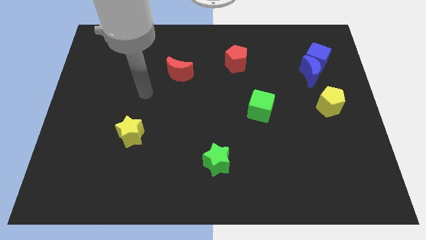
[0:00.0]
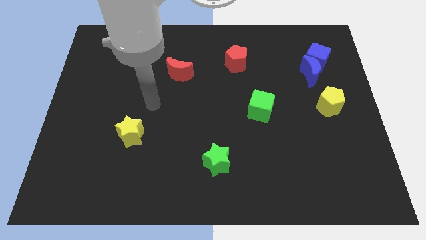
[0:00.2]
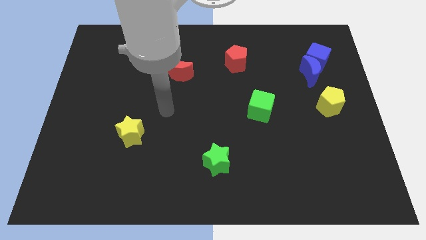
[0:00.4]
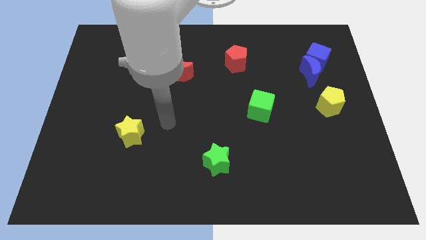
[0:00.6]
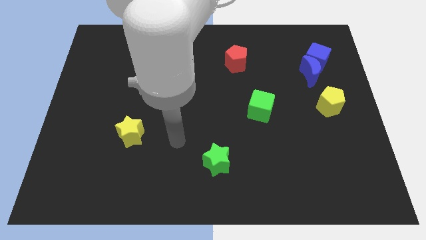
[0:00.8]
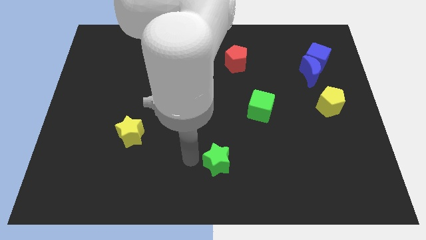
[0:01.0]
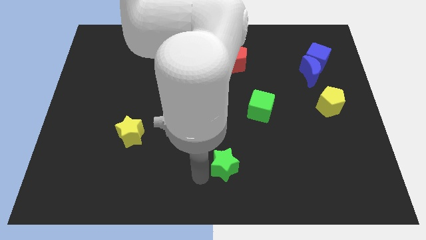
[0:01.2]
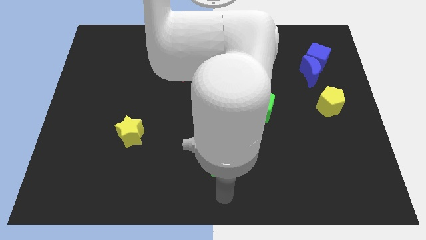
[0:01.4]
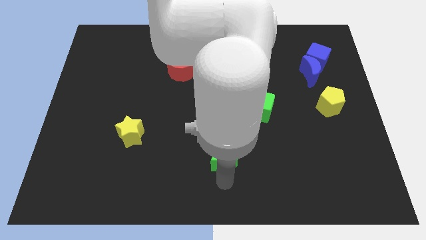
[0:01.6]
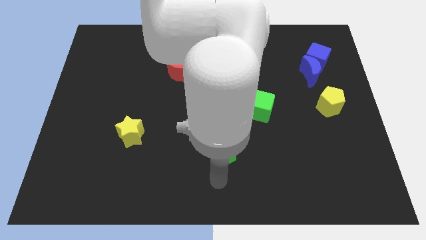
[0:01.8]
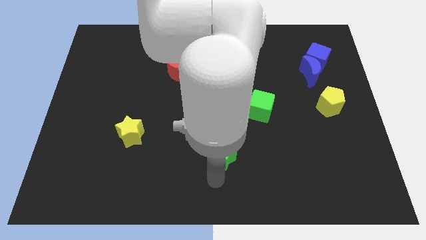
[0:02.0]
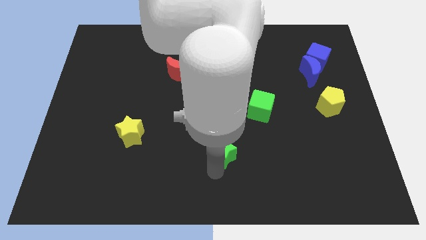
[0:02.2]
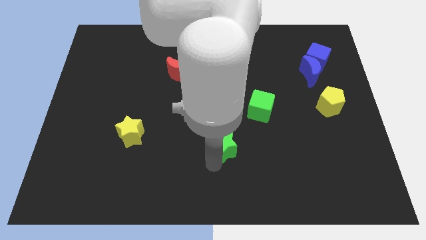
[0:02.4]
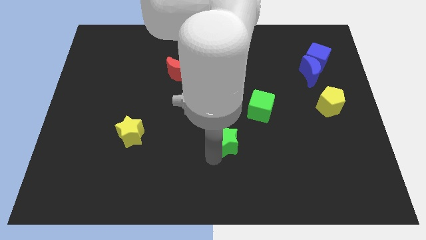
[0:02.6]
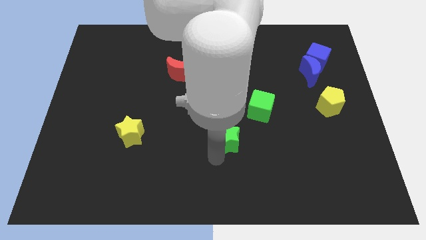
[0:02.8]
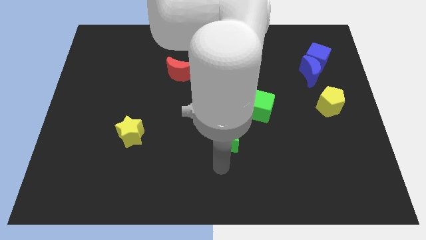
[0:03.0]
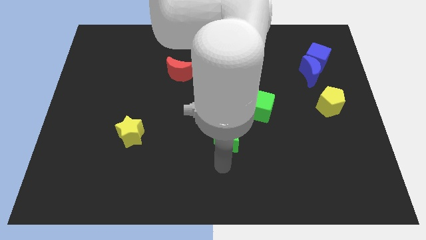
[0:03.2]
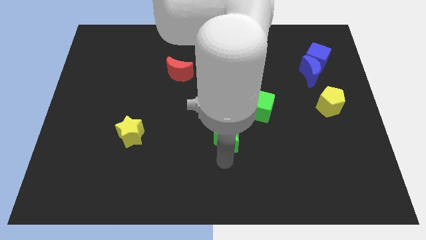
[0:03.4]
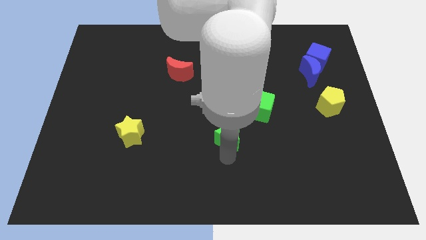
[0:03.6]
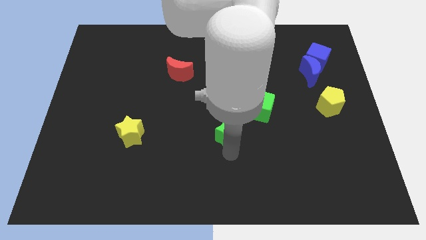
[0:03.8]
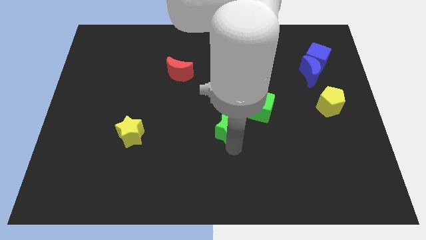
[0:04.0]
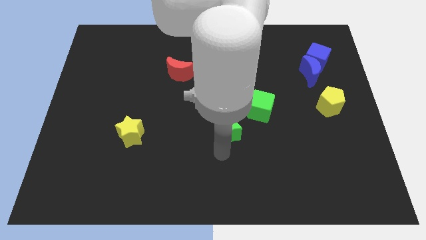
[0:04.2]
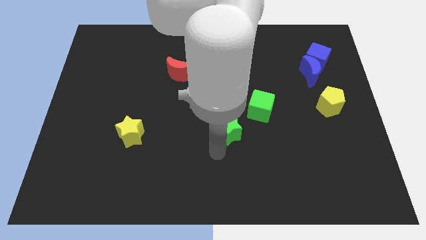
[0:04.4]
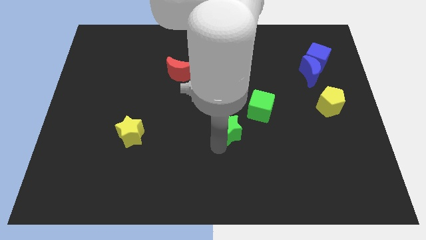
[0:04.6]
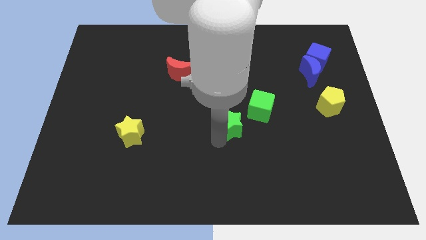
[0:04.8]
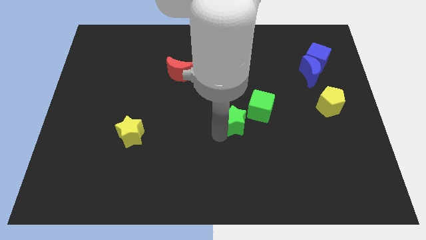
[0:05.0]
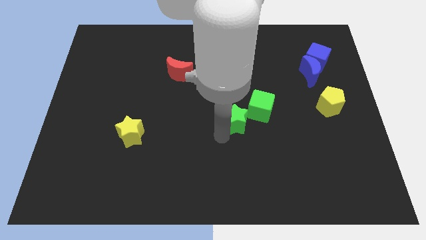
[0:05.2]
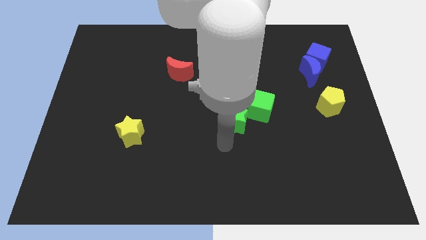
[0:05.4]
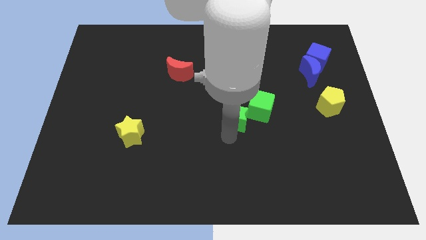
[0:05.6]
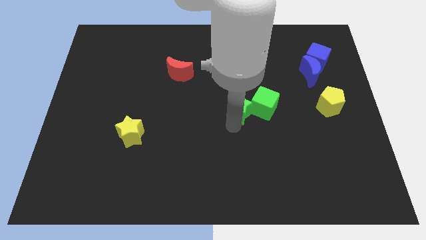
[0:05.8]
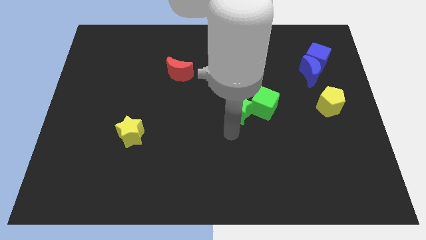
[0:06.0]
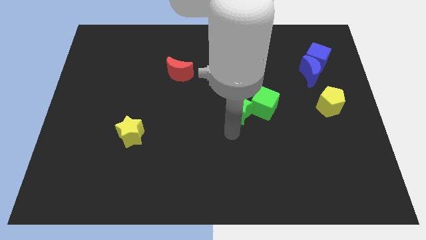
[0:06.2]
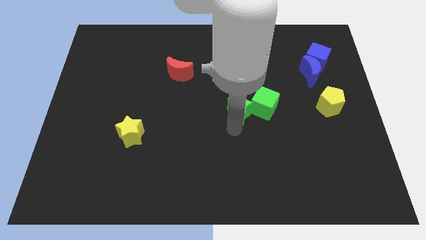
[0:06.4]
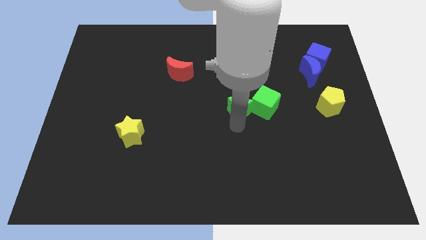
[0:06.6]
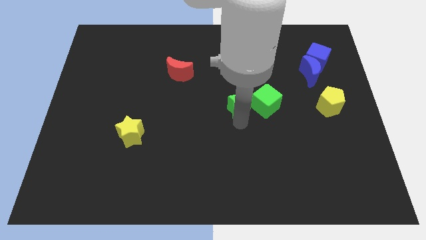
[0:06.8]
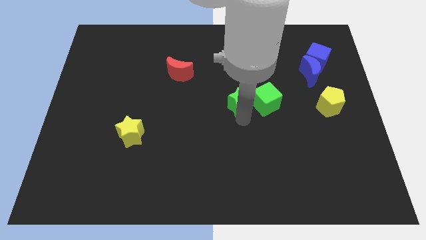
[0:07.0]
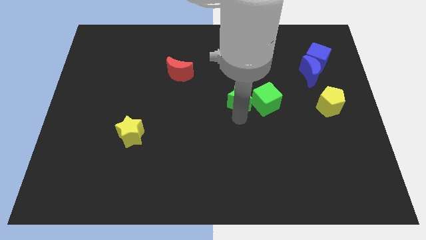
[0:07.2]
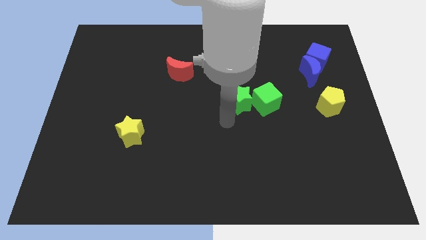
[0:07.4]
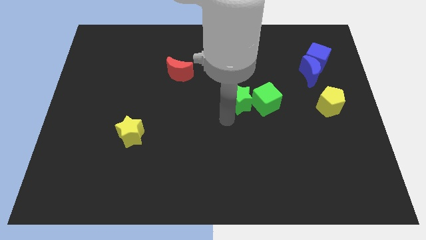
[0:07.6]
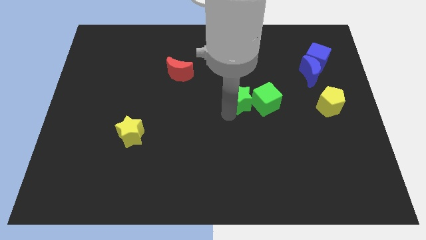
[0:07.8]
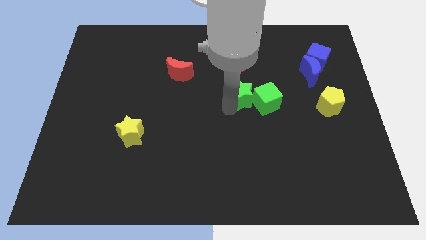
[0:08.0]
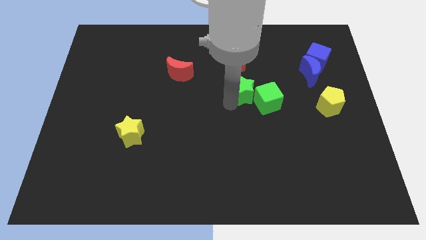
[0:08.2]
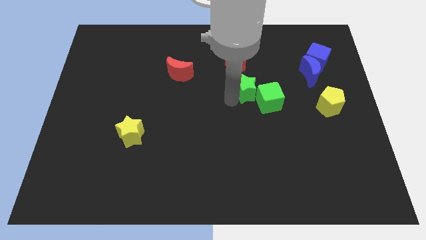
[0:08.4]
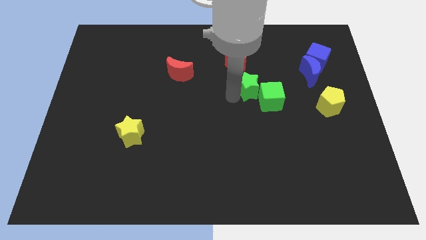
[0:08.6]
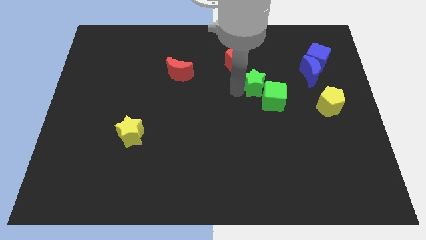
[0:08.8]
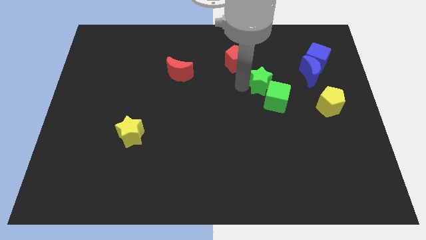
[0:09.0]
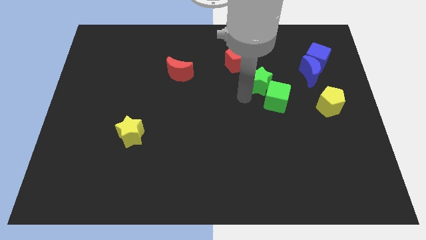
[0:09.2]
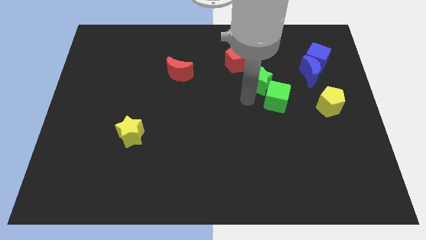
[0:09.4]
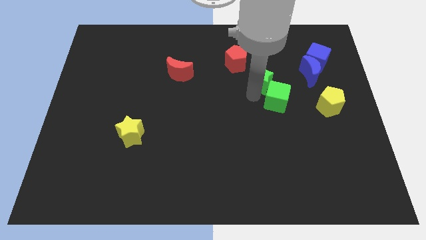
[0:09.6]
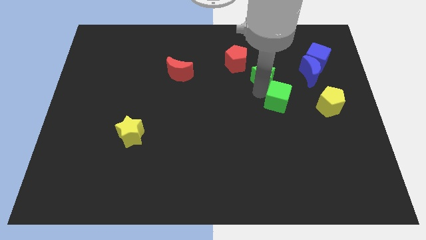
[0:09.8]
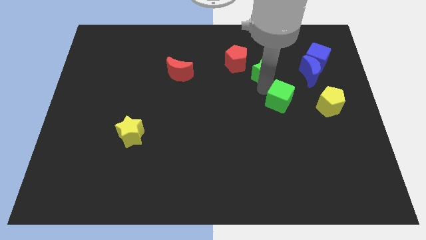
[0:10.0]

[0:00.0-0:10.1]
move the green star just right of the red pentagon

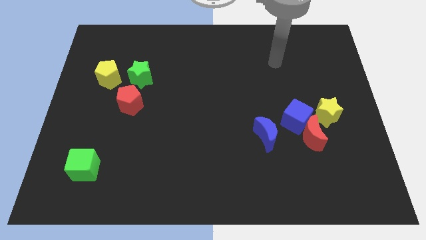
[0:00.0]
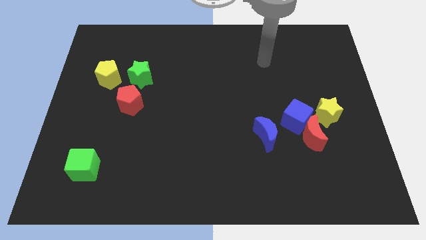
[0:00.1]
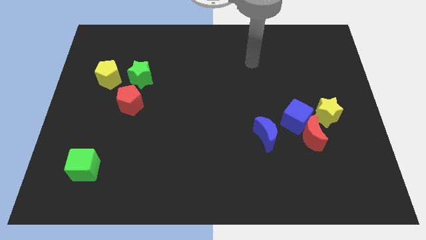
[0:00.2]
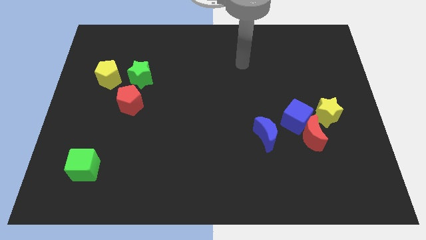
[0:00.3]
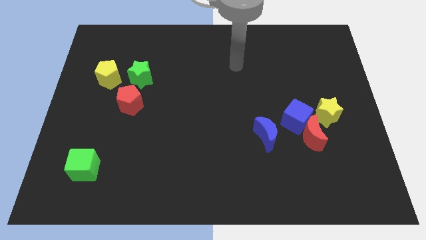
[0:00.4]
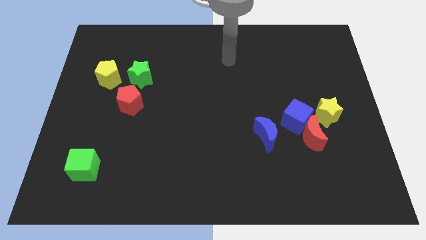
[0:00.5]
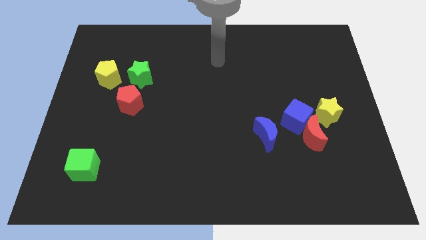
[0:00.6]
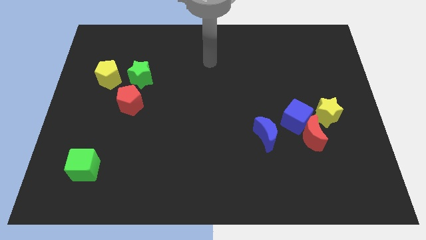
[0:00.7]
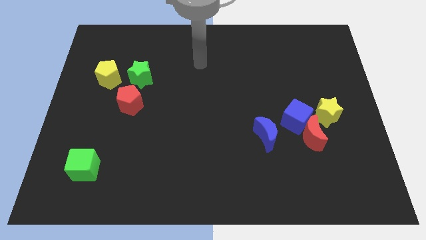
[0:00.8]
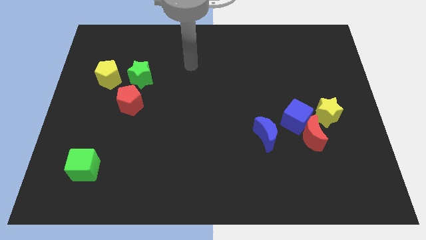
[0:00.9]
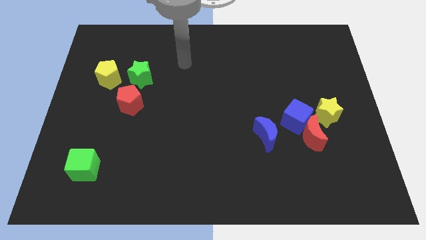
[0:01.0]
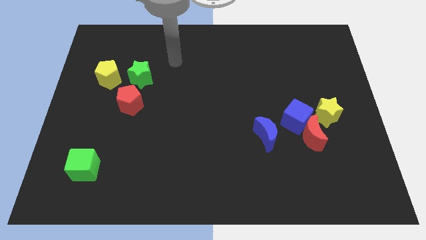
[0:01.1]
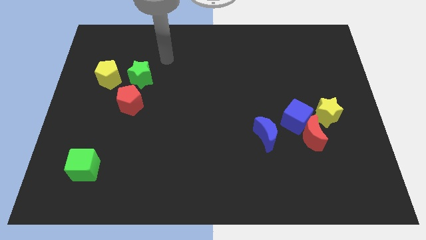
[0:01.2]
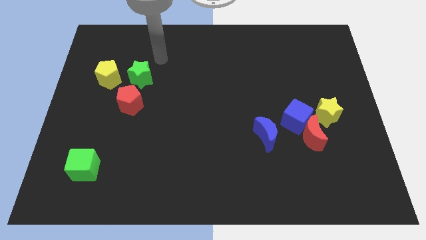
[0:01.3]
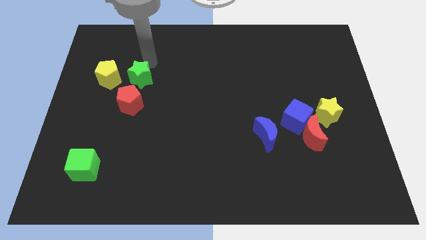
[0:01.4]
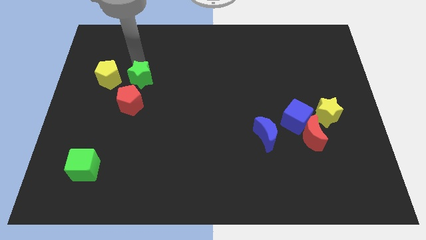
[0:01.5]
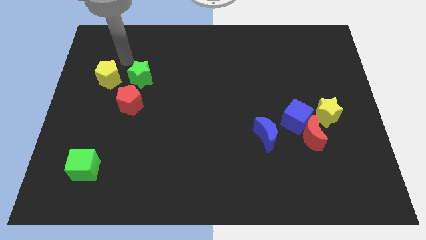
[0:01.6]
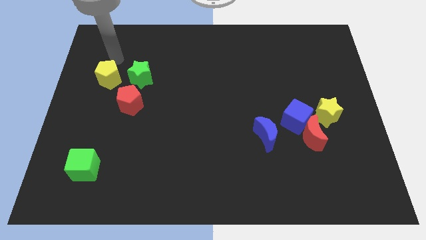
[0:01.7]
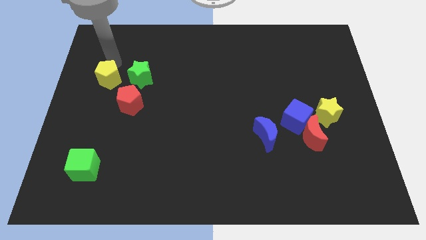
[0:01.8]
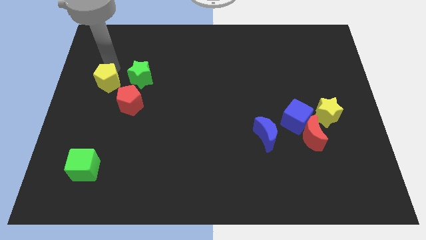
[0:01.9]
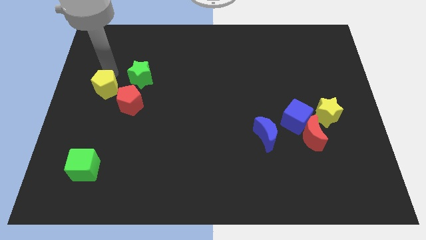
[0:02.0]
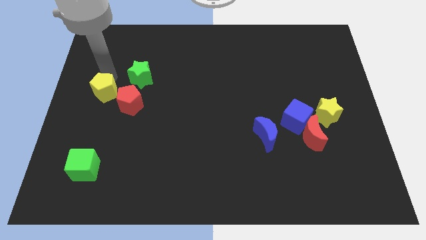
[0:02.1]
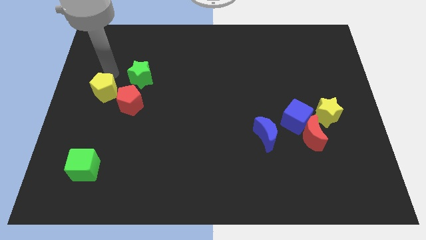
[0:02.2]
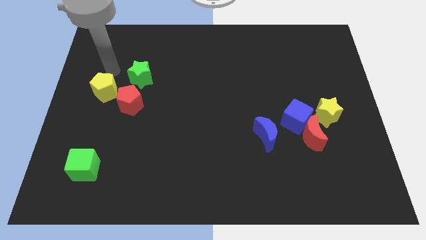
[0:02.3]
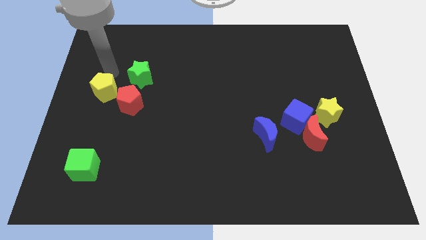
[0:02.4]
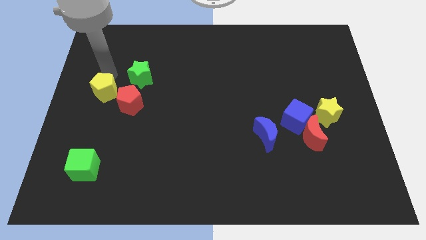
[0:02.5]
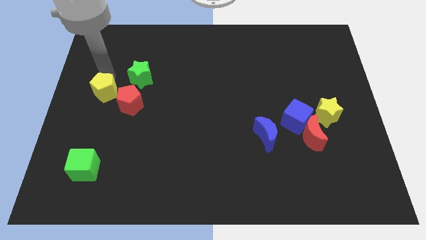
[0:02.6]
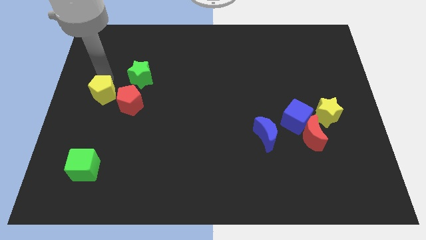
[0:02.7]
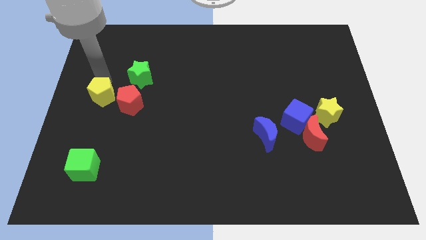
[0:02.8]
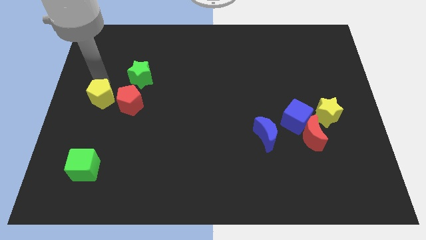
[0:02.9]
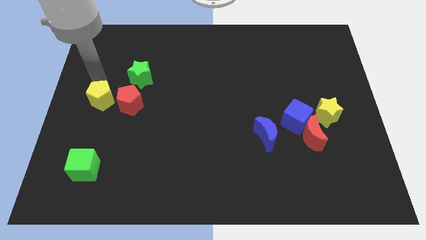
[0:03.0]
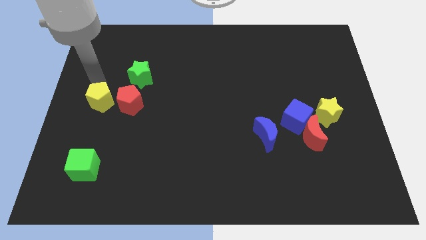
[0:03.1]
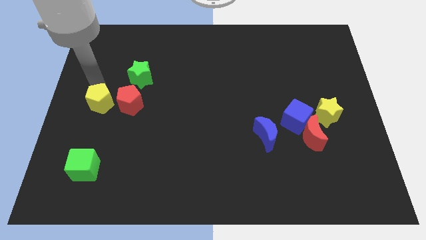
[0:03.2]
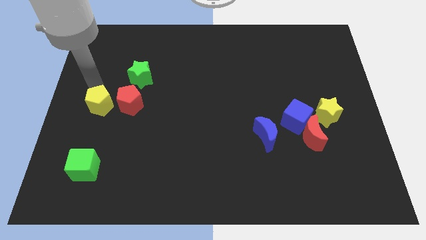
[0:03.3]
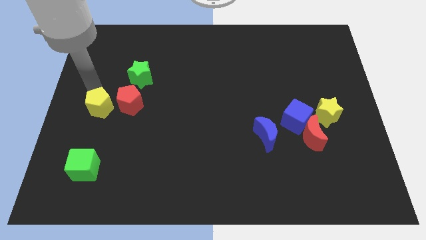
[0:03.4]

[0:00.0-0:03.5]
push the yellow pentagon to the top side of the green cube
